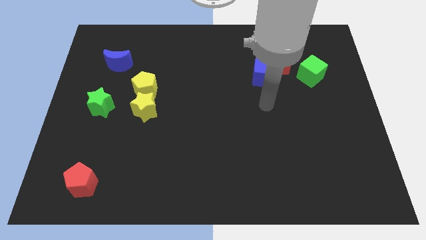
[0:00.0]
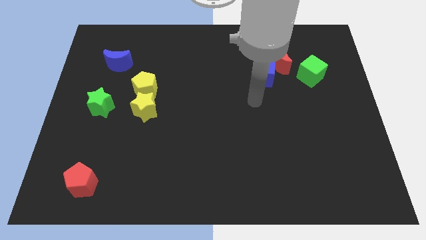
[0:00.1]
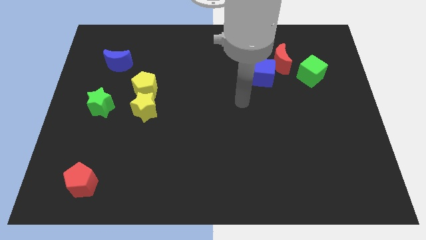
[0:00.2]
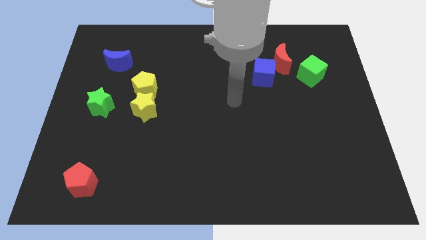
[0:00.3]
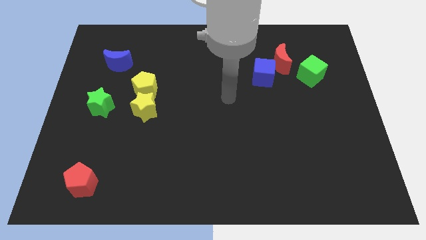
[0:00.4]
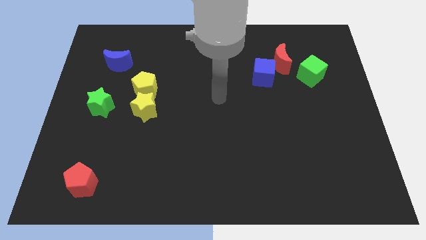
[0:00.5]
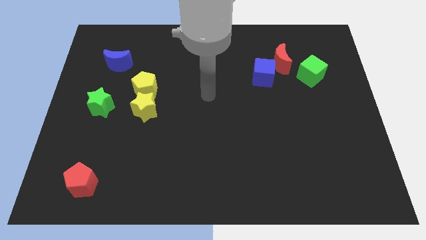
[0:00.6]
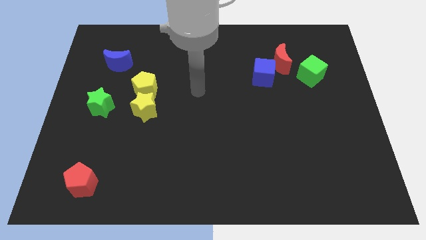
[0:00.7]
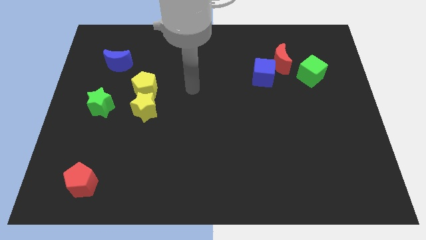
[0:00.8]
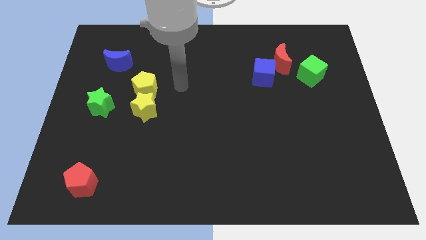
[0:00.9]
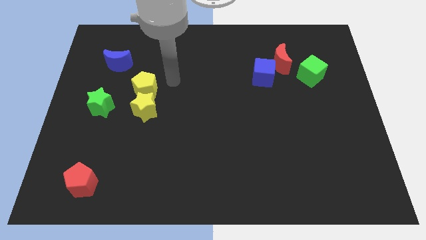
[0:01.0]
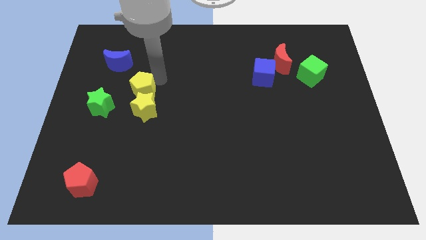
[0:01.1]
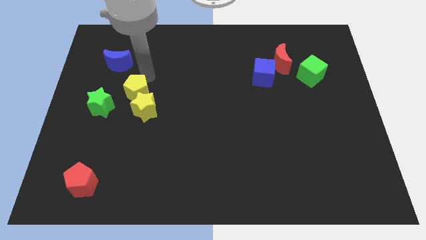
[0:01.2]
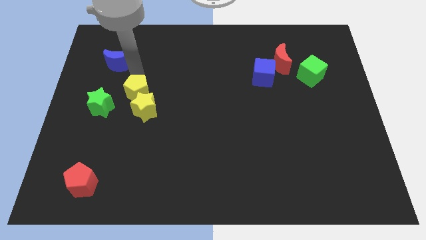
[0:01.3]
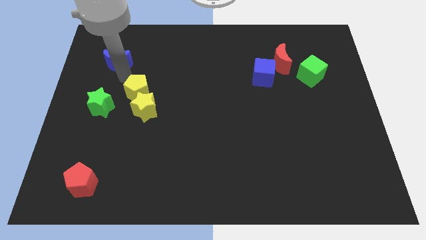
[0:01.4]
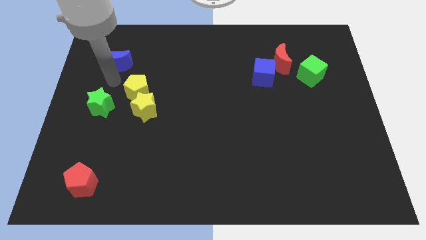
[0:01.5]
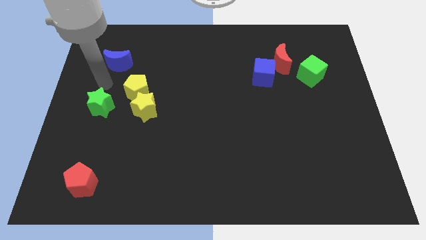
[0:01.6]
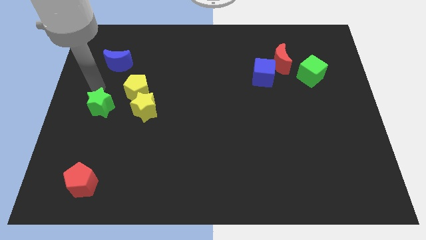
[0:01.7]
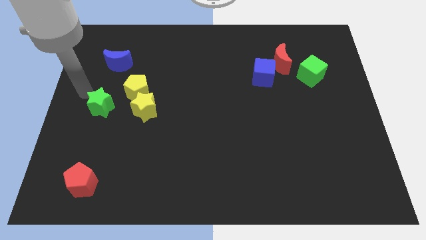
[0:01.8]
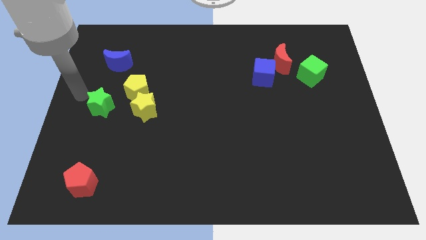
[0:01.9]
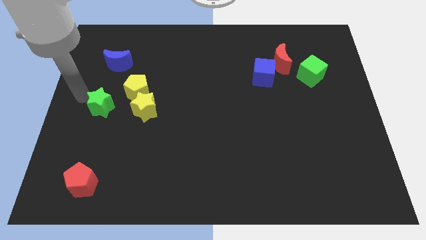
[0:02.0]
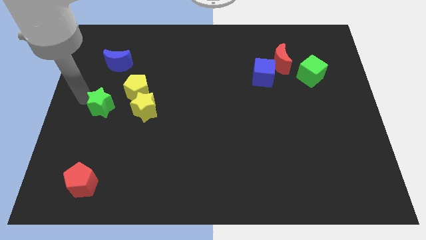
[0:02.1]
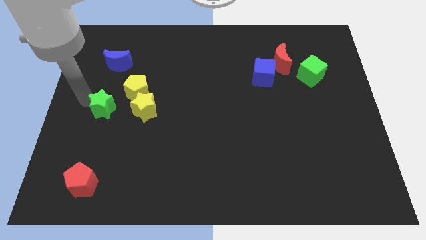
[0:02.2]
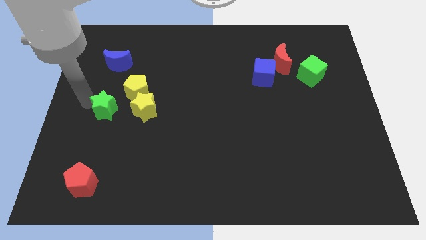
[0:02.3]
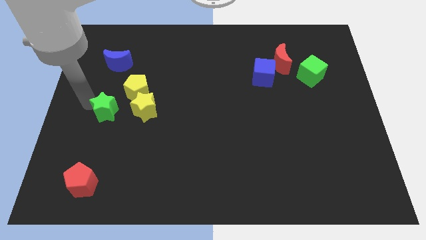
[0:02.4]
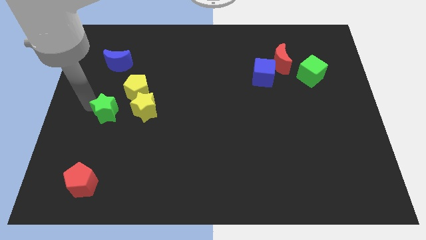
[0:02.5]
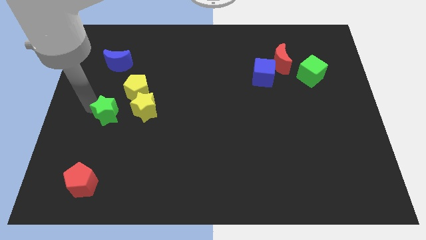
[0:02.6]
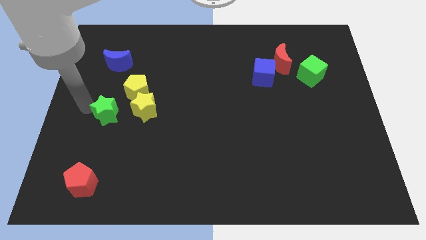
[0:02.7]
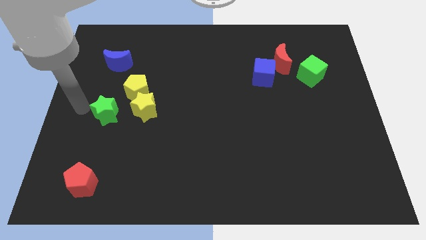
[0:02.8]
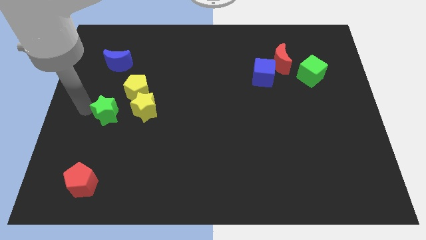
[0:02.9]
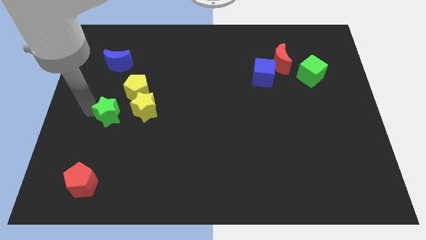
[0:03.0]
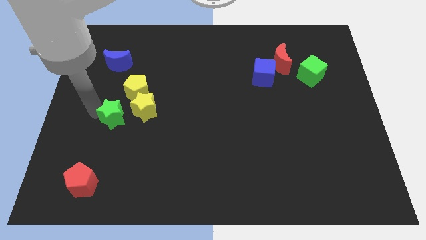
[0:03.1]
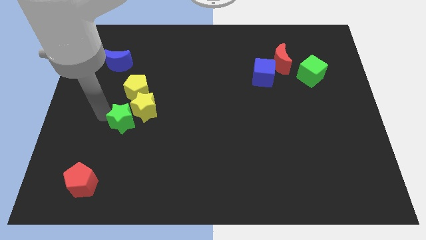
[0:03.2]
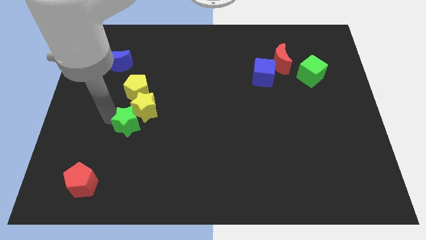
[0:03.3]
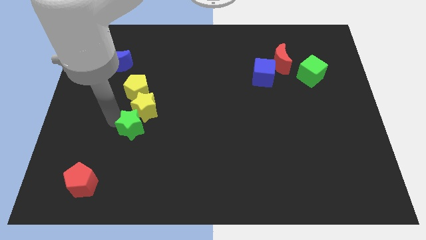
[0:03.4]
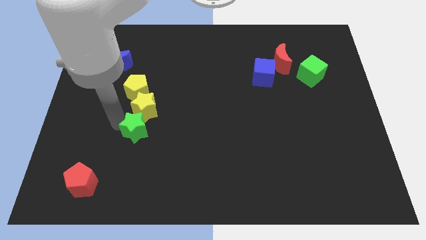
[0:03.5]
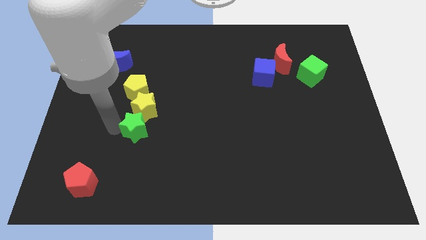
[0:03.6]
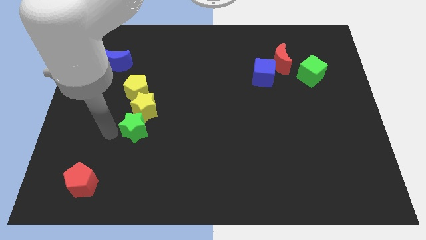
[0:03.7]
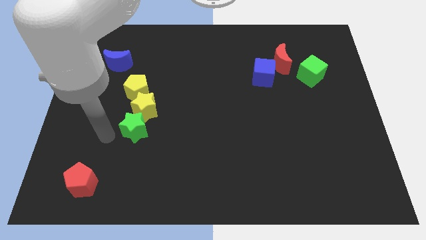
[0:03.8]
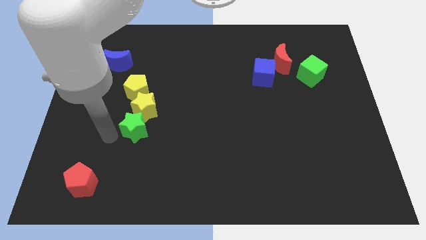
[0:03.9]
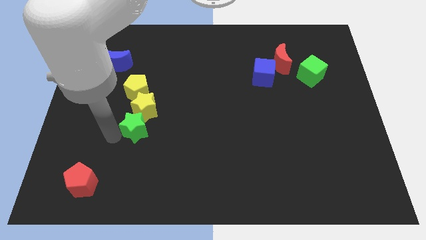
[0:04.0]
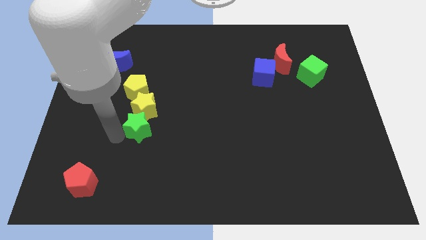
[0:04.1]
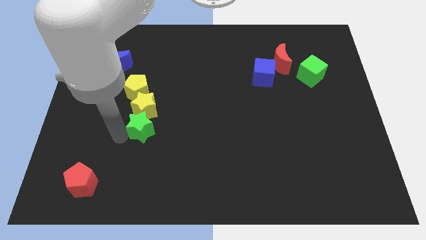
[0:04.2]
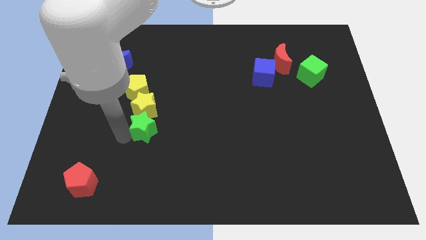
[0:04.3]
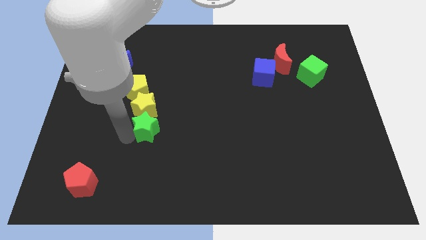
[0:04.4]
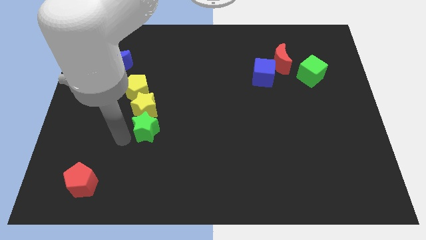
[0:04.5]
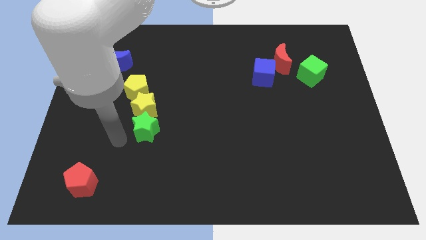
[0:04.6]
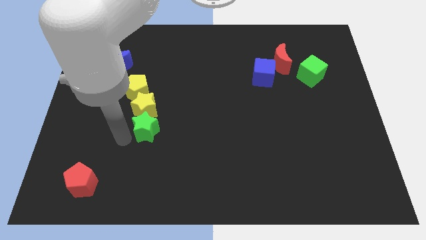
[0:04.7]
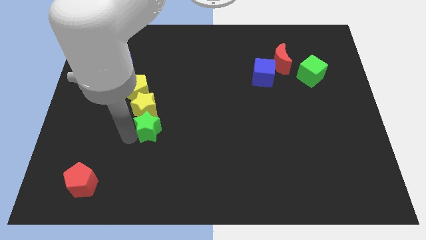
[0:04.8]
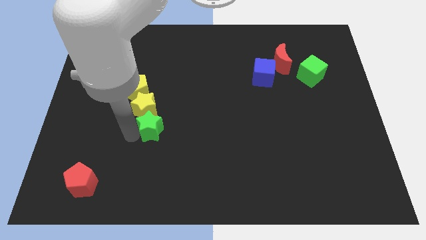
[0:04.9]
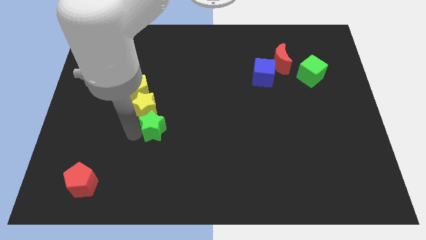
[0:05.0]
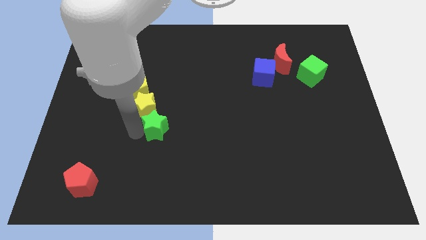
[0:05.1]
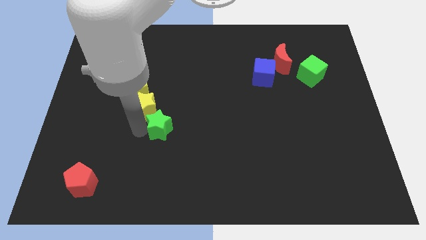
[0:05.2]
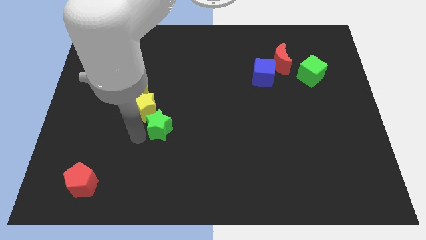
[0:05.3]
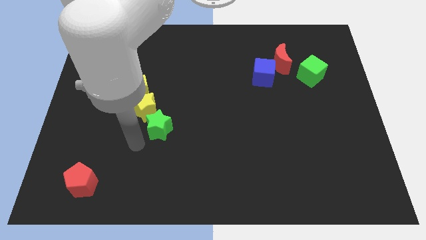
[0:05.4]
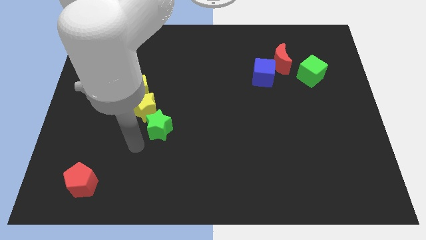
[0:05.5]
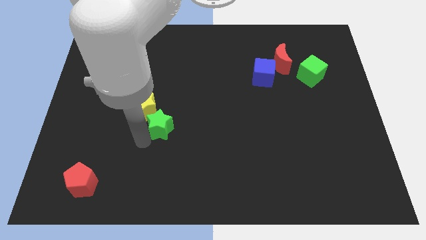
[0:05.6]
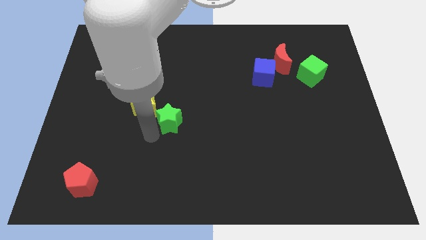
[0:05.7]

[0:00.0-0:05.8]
push the green star right of the yellow star

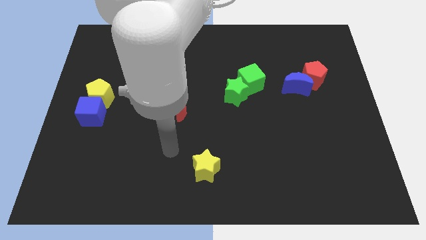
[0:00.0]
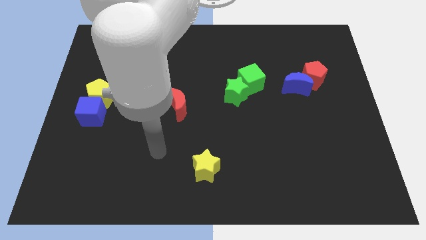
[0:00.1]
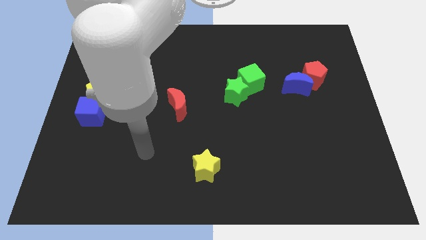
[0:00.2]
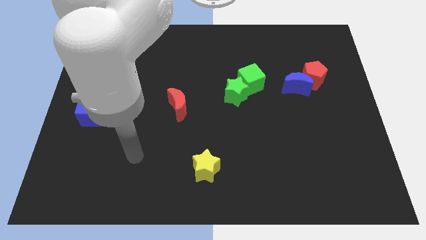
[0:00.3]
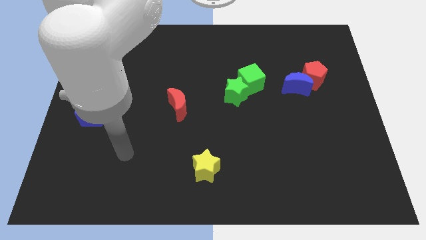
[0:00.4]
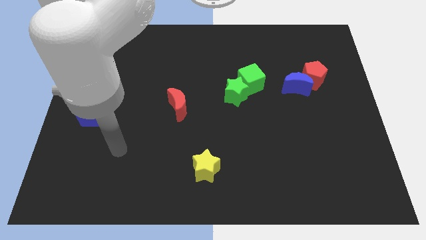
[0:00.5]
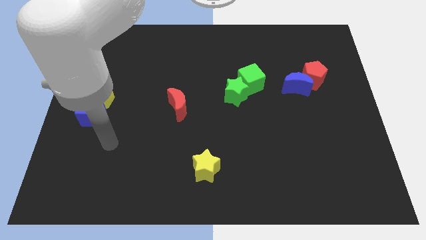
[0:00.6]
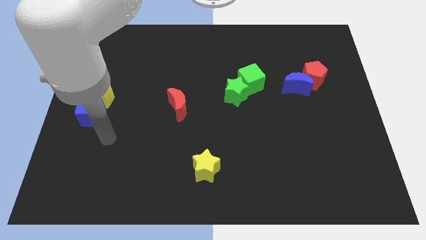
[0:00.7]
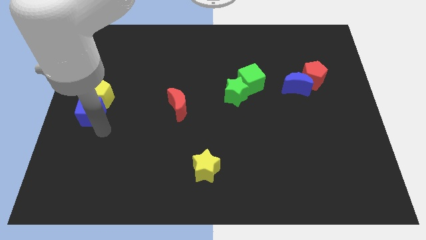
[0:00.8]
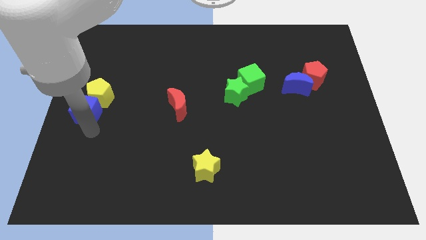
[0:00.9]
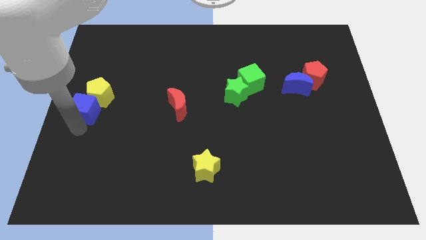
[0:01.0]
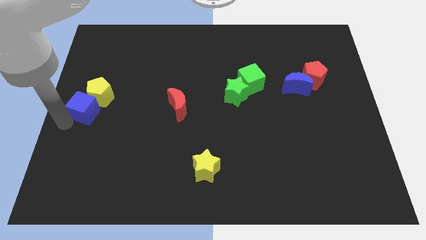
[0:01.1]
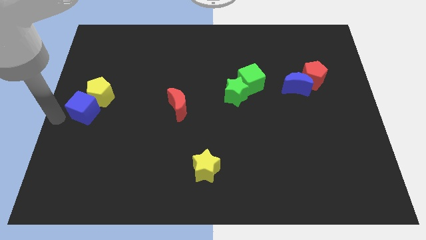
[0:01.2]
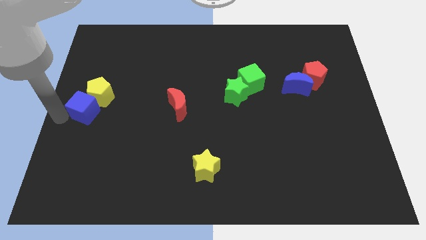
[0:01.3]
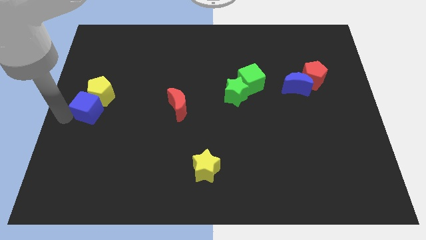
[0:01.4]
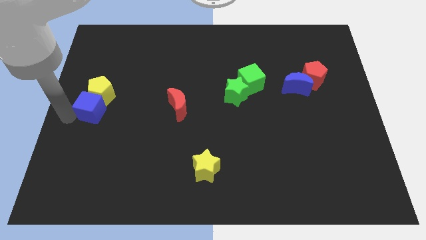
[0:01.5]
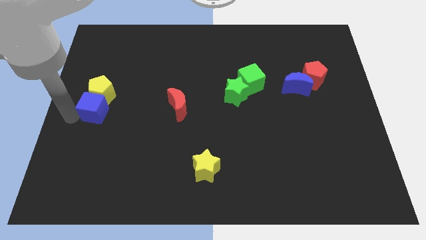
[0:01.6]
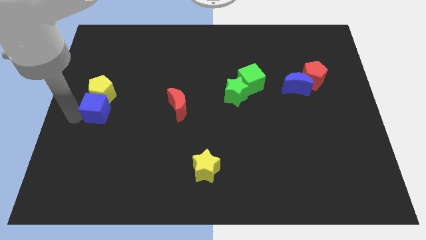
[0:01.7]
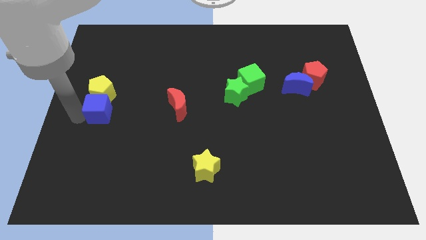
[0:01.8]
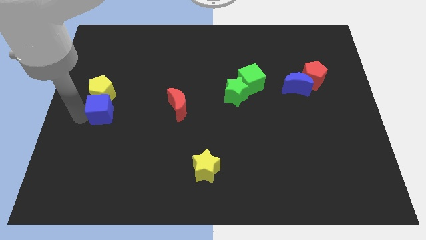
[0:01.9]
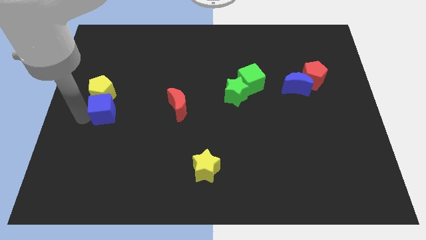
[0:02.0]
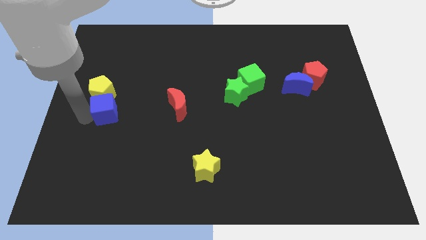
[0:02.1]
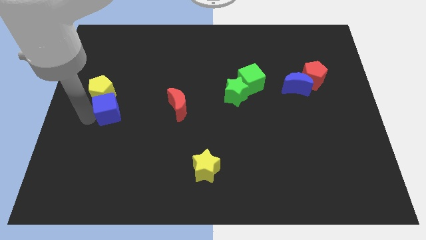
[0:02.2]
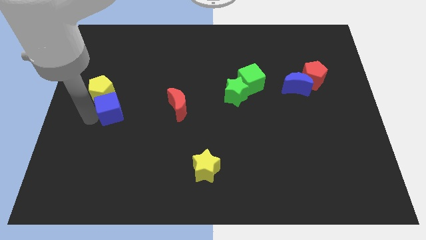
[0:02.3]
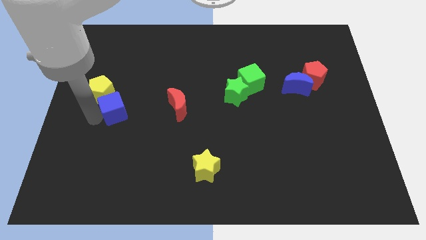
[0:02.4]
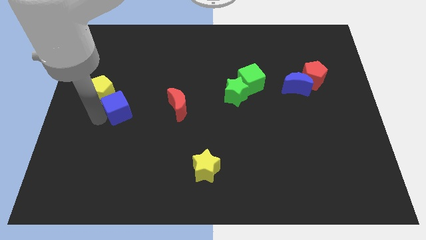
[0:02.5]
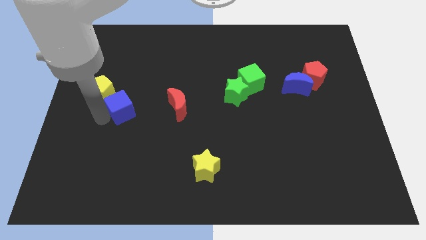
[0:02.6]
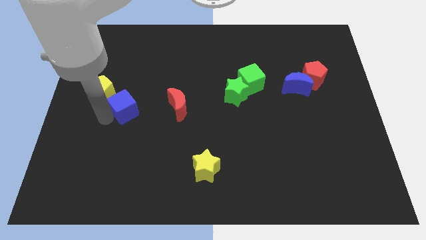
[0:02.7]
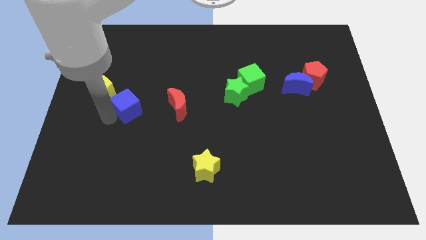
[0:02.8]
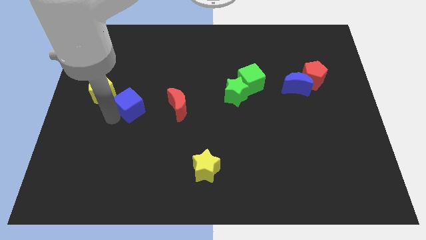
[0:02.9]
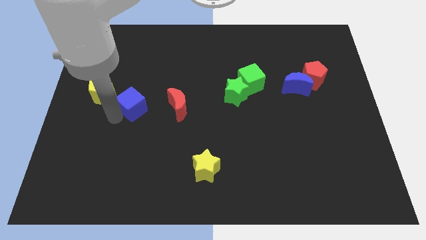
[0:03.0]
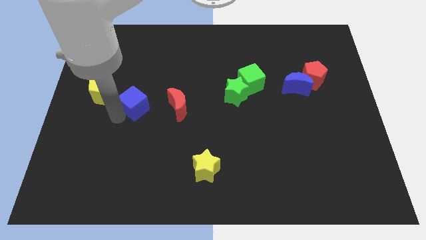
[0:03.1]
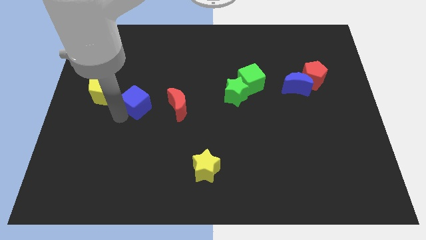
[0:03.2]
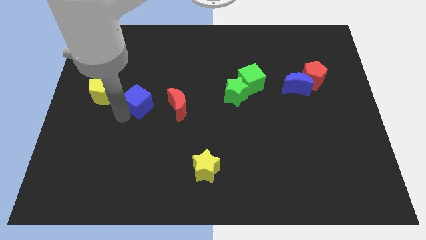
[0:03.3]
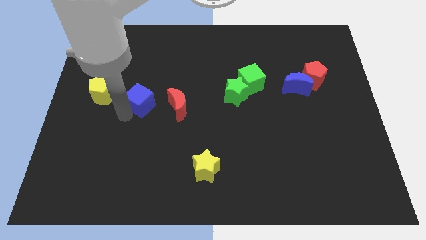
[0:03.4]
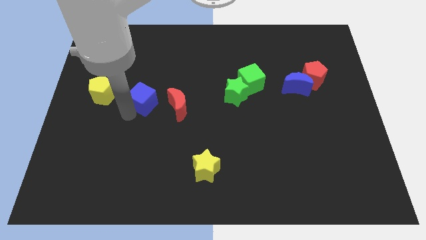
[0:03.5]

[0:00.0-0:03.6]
push the blue cube to the top left side of the red moon
